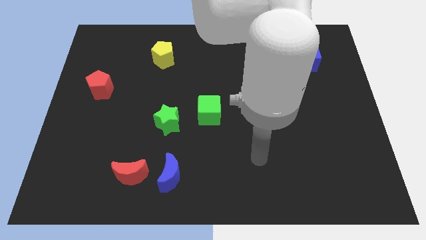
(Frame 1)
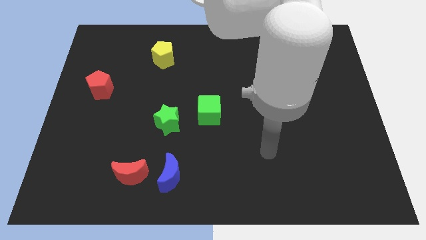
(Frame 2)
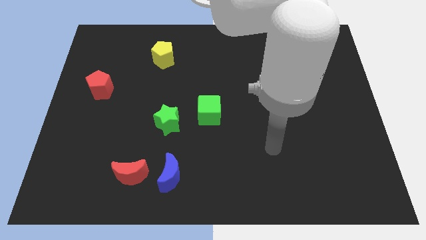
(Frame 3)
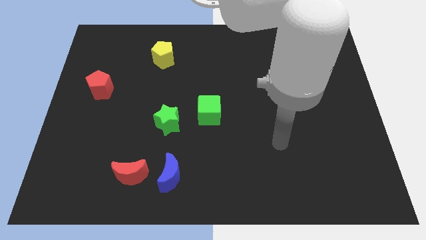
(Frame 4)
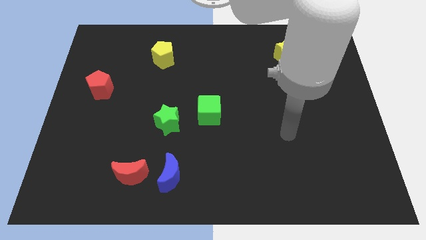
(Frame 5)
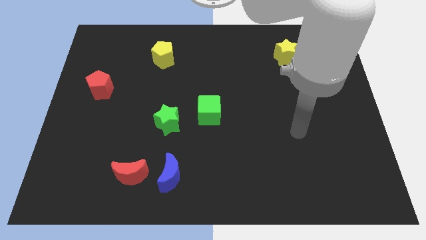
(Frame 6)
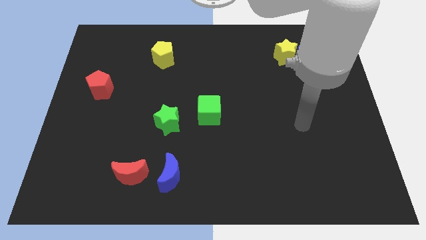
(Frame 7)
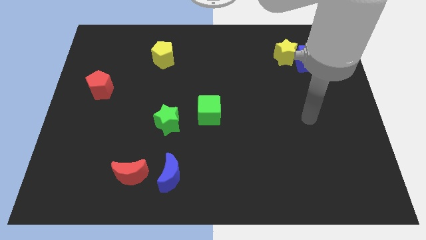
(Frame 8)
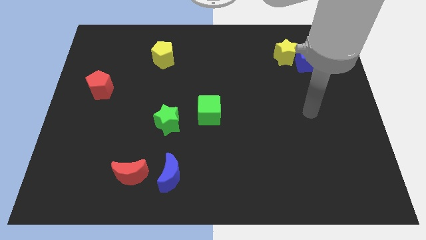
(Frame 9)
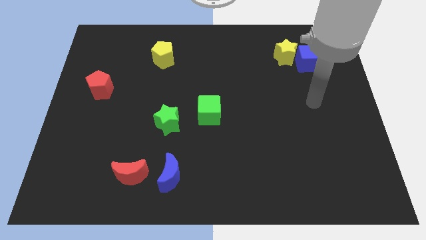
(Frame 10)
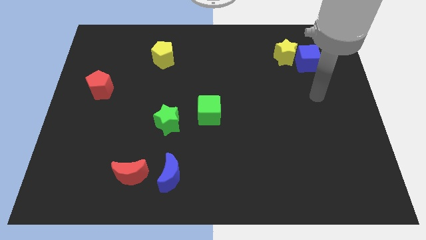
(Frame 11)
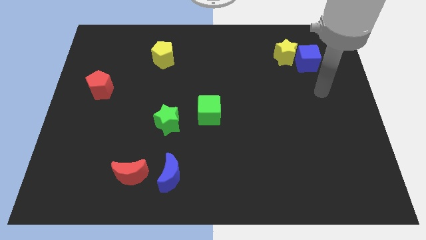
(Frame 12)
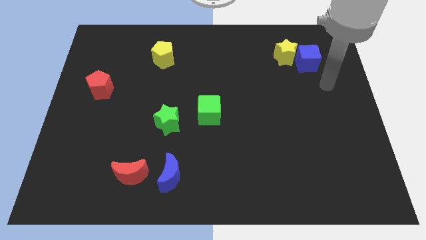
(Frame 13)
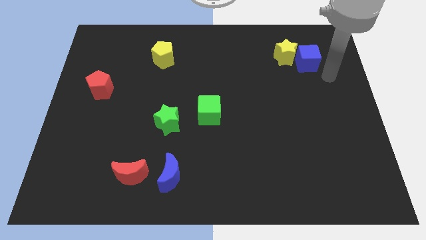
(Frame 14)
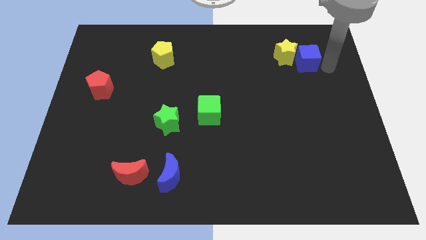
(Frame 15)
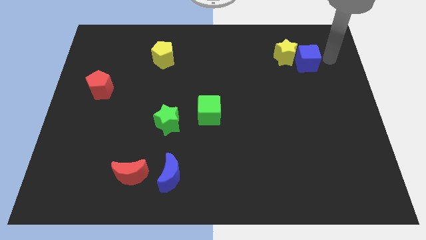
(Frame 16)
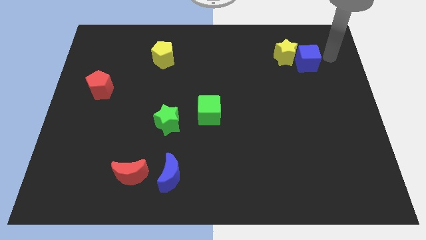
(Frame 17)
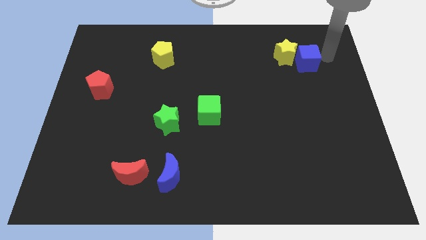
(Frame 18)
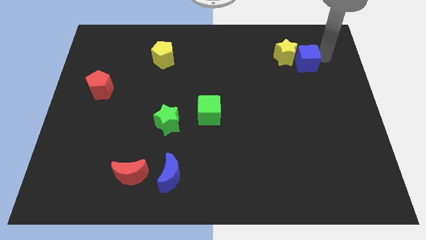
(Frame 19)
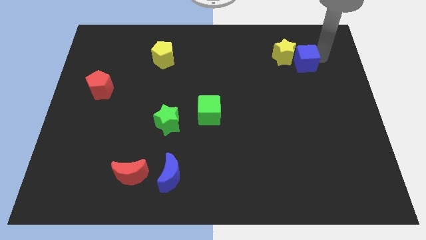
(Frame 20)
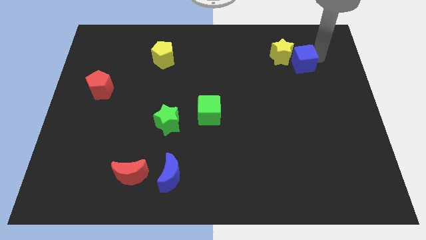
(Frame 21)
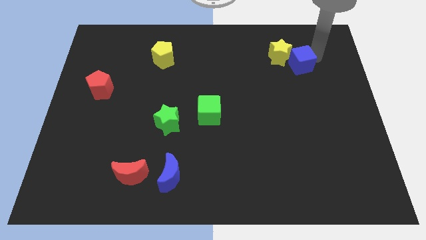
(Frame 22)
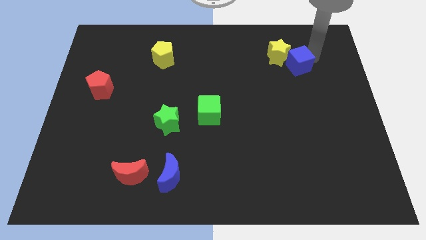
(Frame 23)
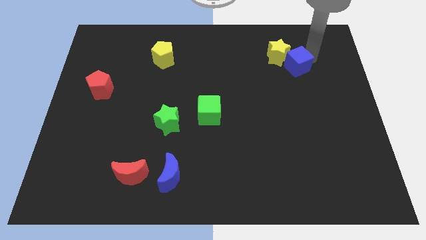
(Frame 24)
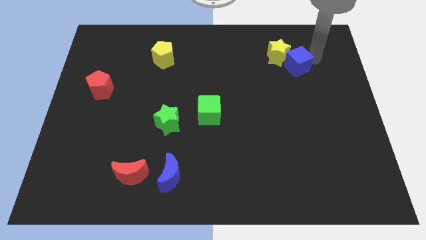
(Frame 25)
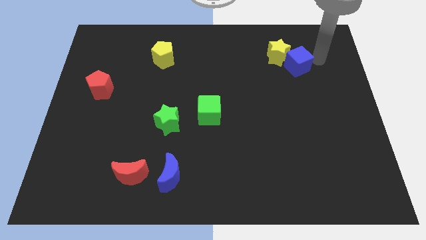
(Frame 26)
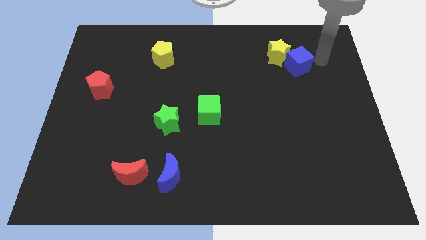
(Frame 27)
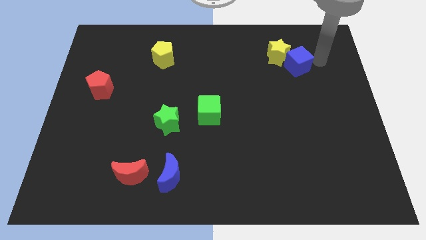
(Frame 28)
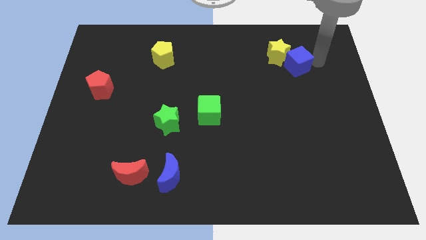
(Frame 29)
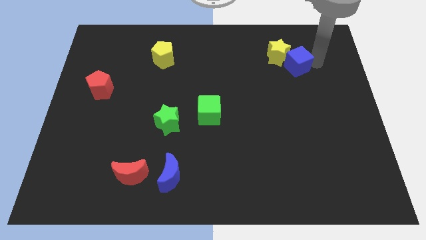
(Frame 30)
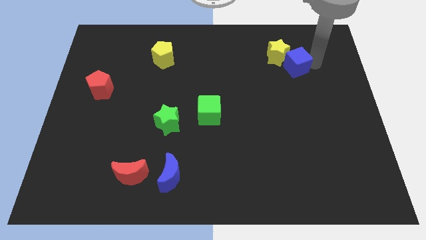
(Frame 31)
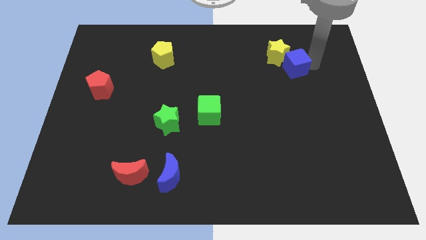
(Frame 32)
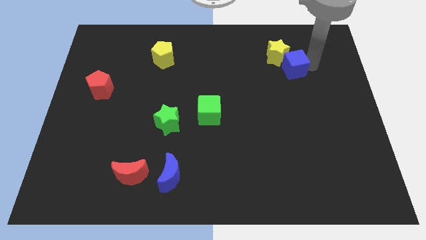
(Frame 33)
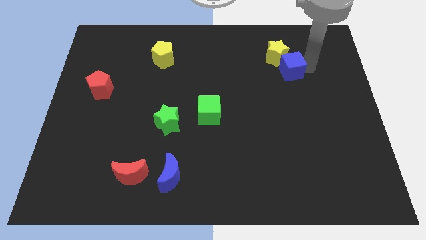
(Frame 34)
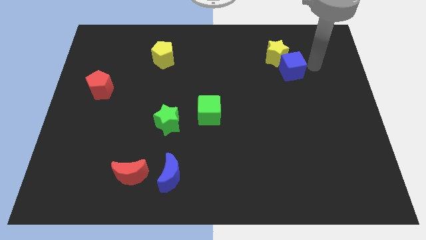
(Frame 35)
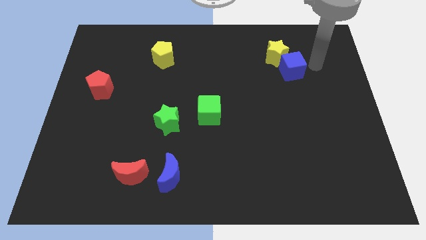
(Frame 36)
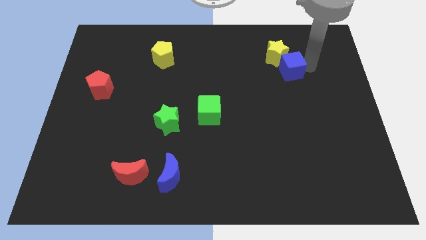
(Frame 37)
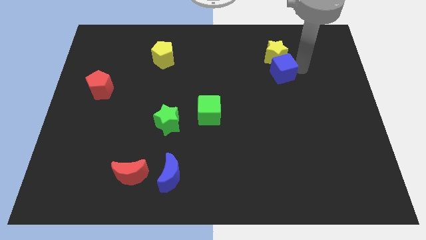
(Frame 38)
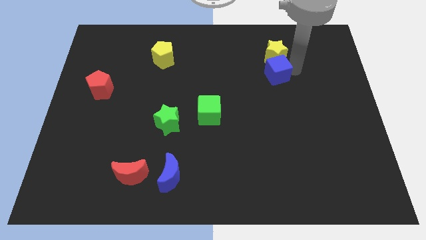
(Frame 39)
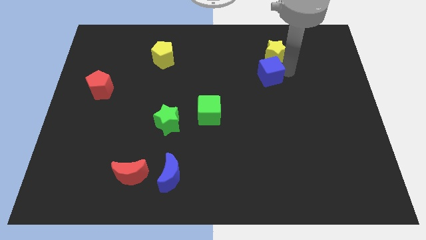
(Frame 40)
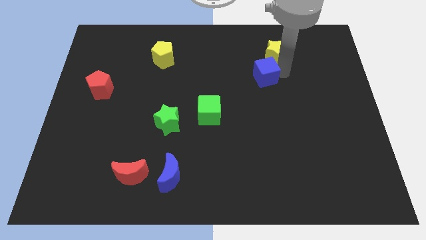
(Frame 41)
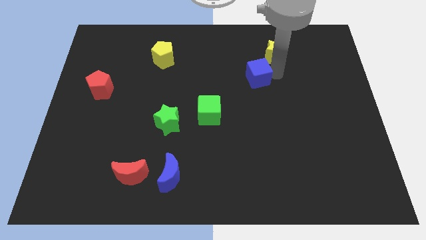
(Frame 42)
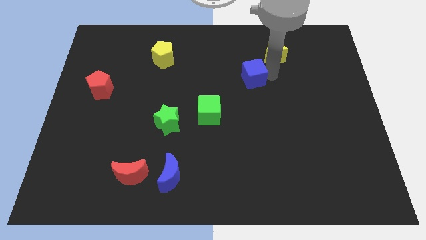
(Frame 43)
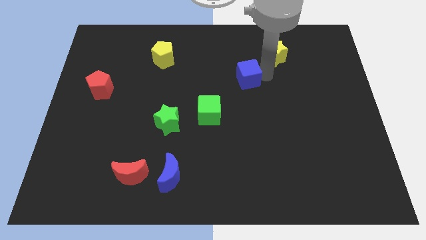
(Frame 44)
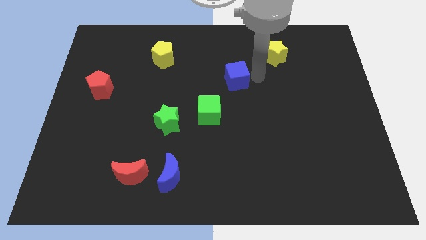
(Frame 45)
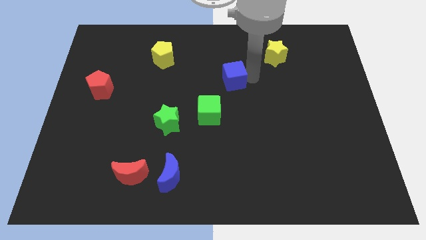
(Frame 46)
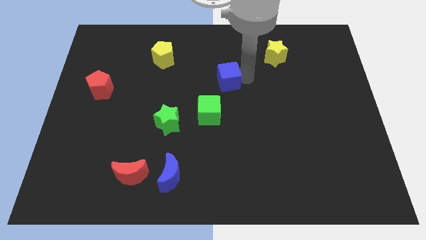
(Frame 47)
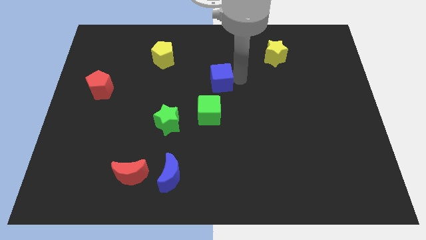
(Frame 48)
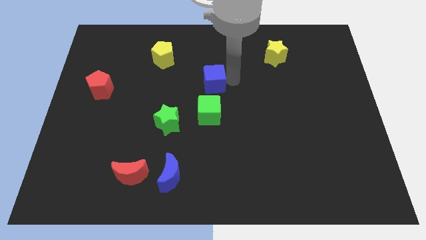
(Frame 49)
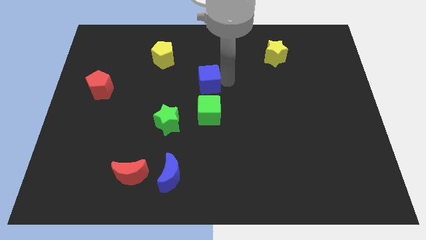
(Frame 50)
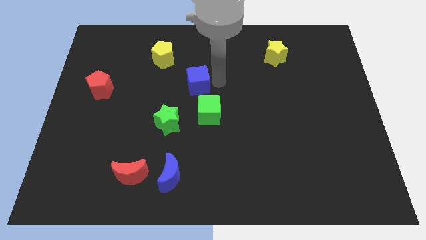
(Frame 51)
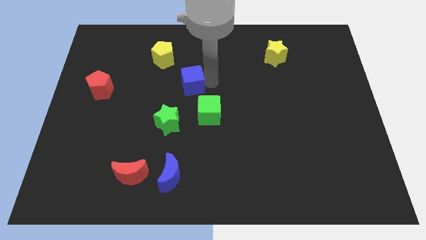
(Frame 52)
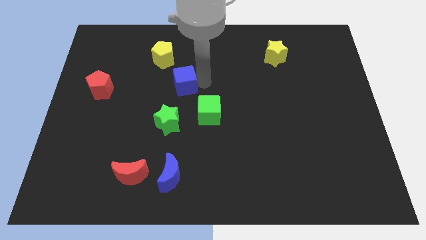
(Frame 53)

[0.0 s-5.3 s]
slide the blue cube above the green star

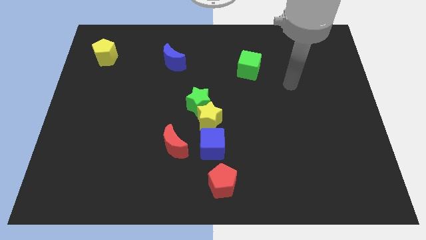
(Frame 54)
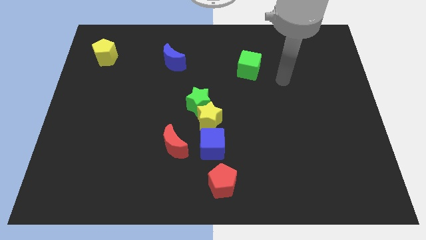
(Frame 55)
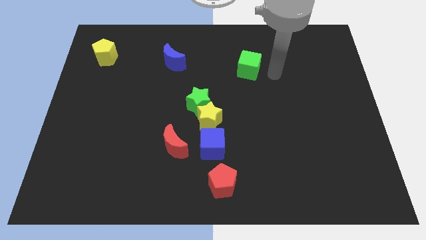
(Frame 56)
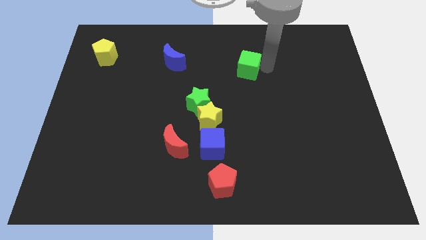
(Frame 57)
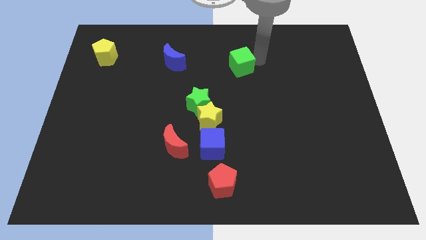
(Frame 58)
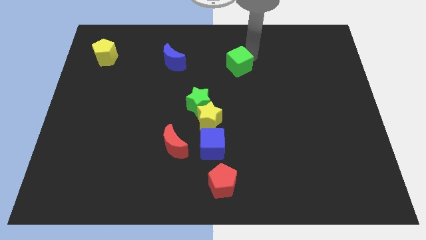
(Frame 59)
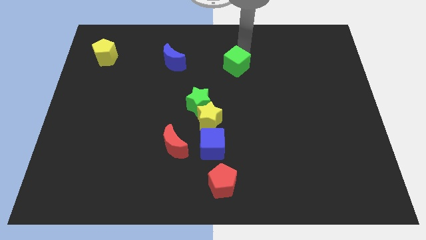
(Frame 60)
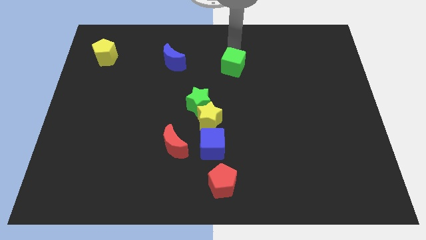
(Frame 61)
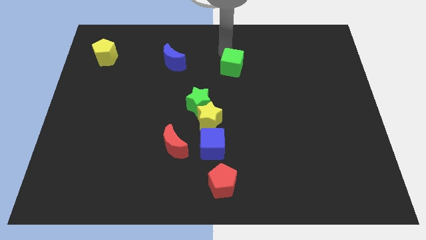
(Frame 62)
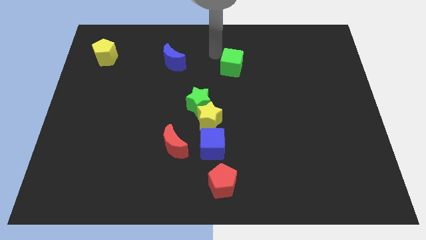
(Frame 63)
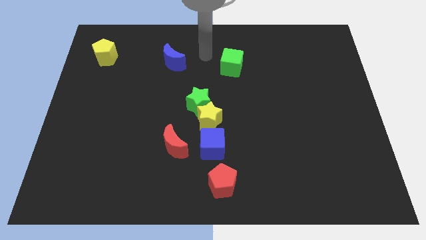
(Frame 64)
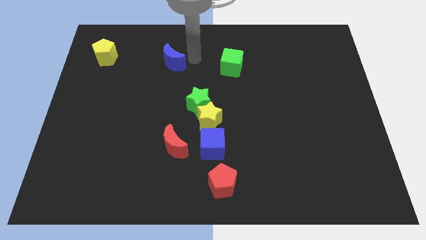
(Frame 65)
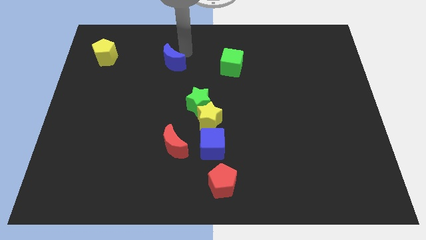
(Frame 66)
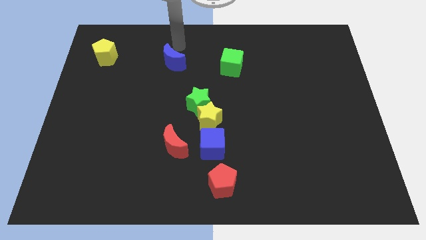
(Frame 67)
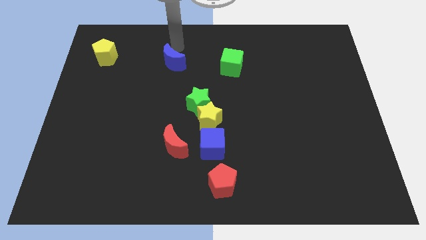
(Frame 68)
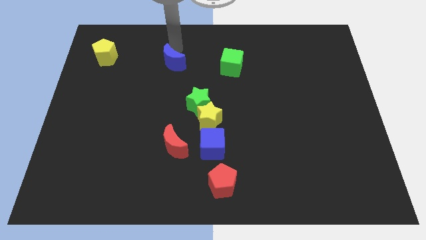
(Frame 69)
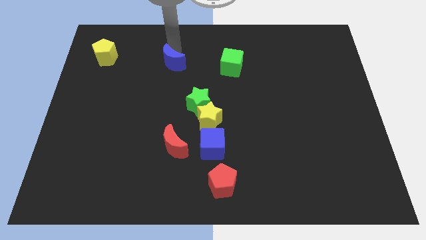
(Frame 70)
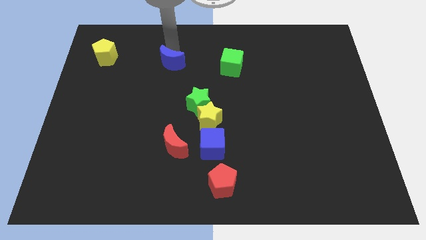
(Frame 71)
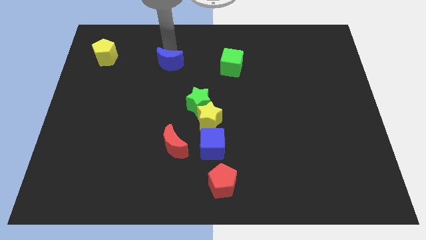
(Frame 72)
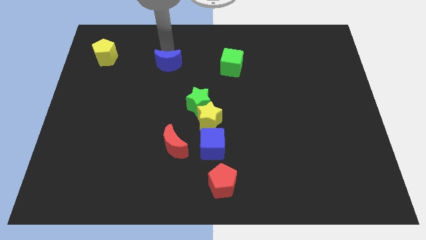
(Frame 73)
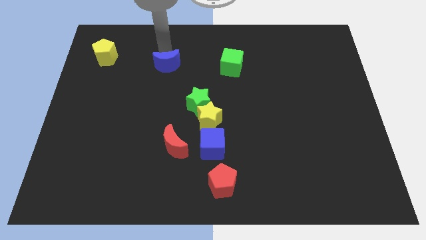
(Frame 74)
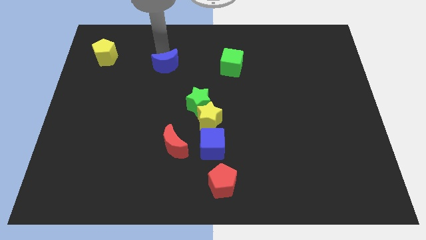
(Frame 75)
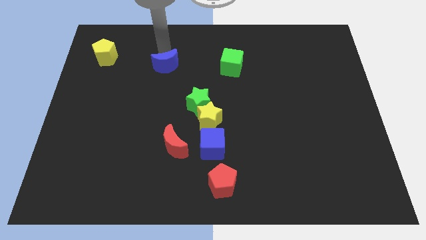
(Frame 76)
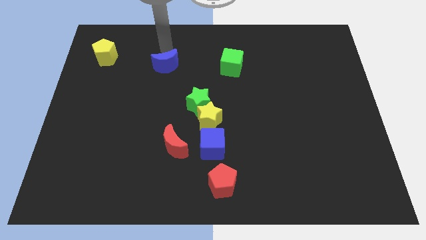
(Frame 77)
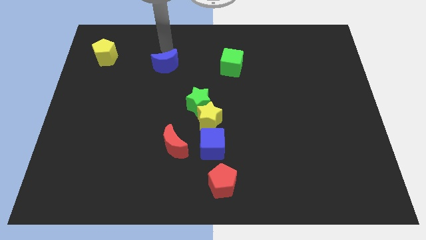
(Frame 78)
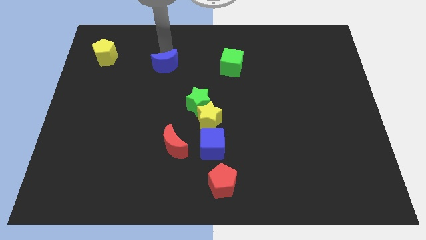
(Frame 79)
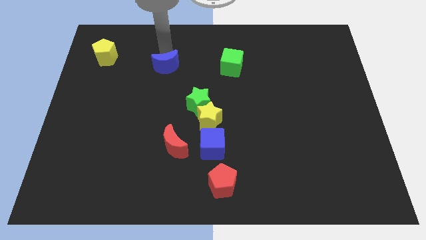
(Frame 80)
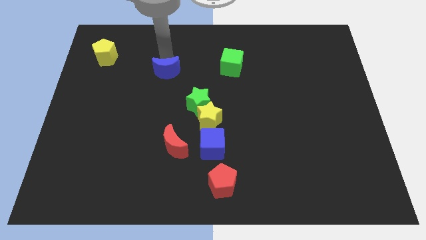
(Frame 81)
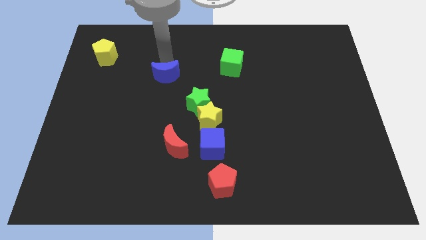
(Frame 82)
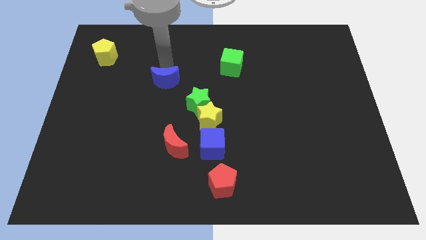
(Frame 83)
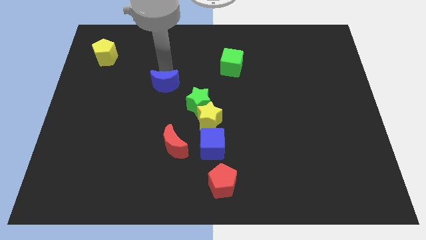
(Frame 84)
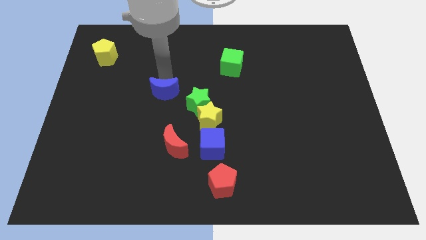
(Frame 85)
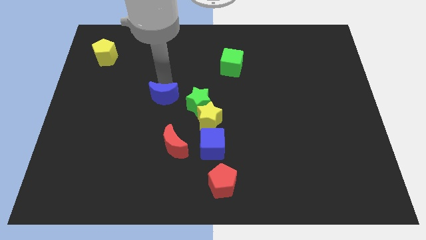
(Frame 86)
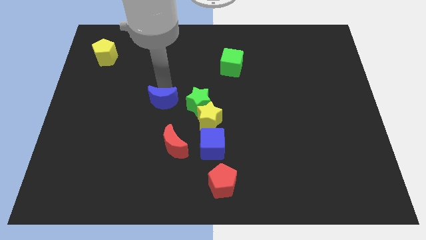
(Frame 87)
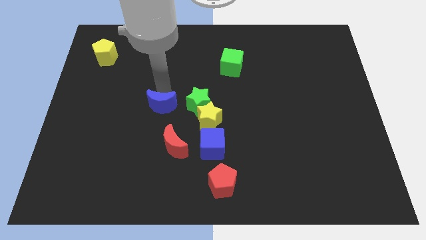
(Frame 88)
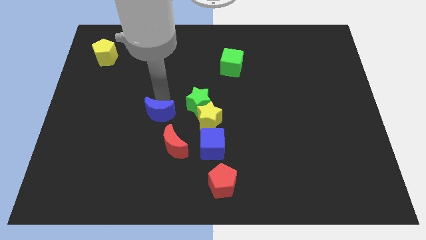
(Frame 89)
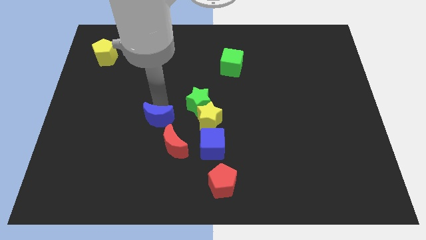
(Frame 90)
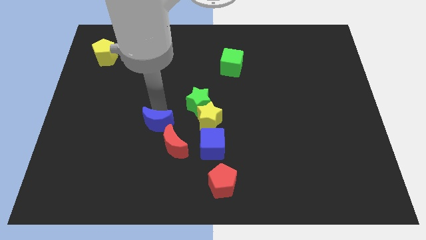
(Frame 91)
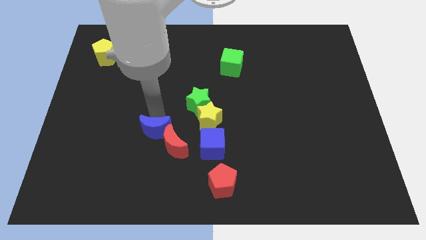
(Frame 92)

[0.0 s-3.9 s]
slide the blue moon to the left side of the blue cube
